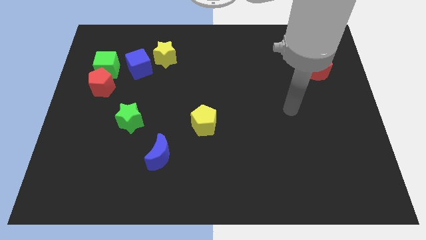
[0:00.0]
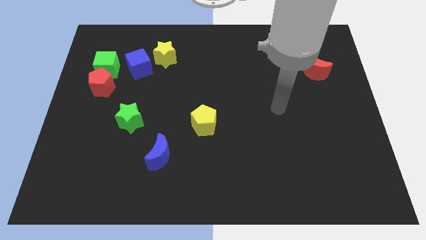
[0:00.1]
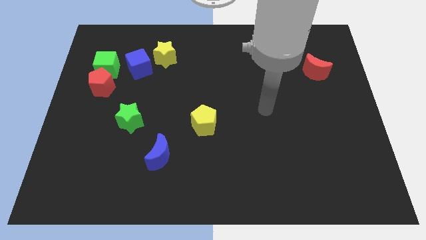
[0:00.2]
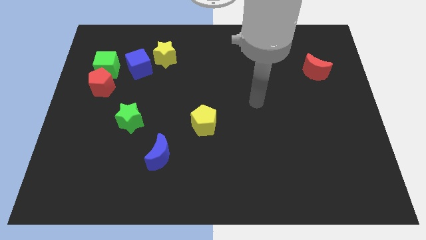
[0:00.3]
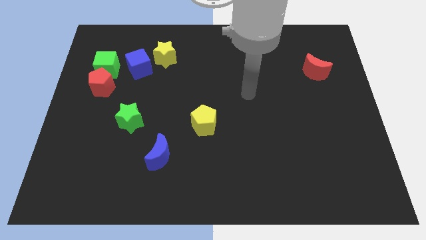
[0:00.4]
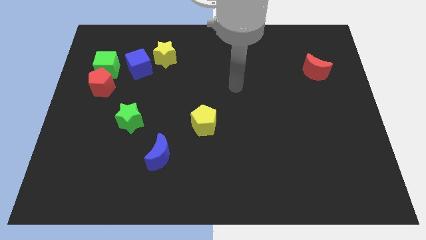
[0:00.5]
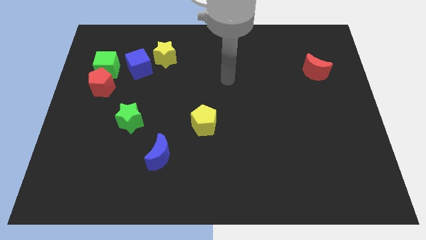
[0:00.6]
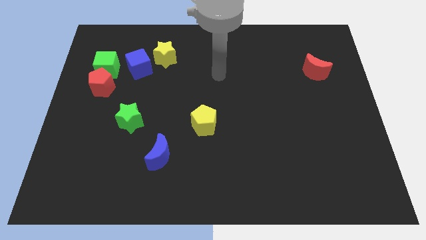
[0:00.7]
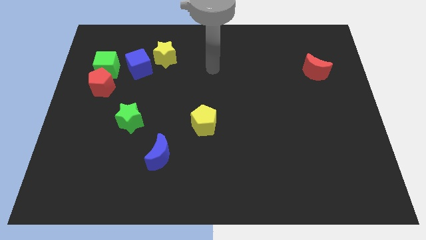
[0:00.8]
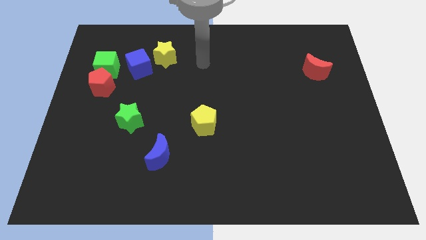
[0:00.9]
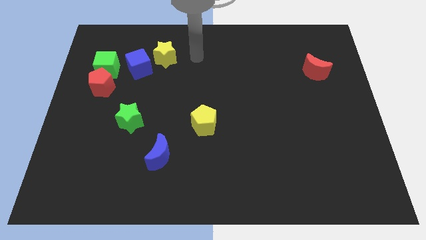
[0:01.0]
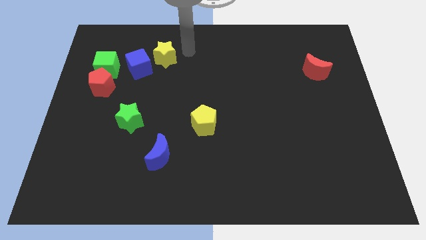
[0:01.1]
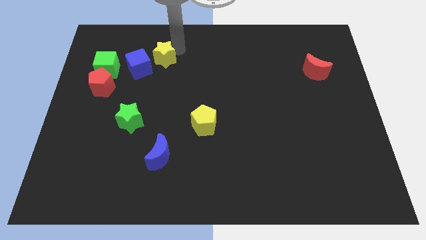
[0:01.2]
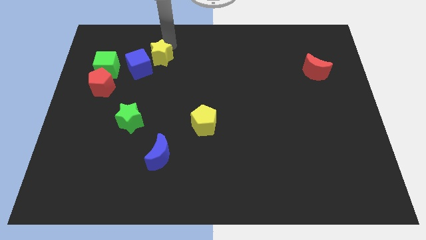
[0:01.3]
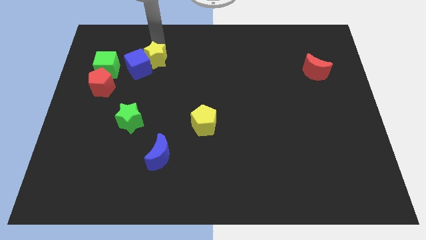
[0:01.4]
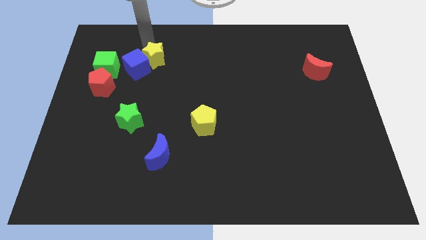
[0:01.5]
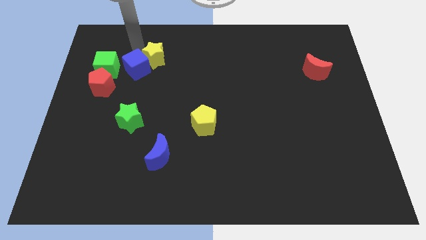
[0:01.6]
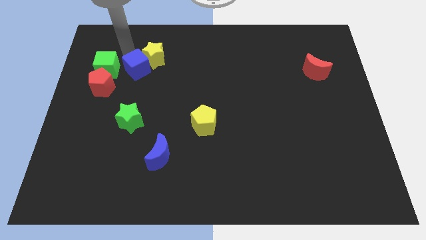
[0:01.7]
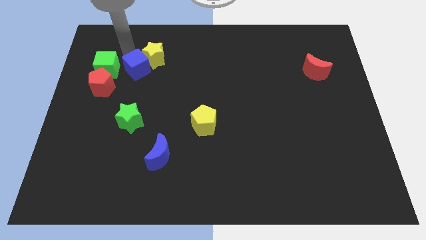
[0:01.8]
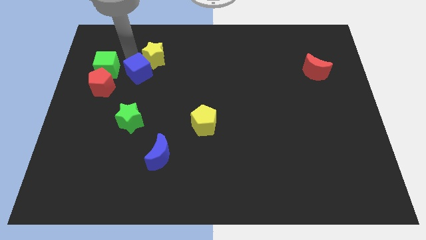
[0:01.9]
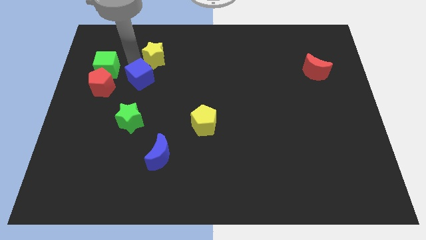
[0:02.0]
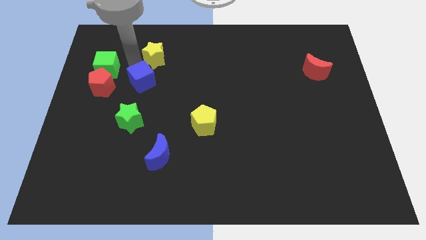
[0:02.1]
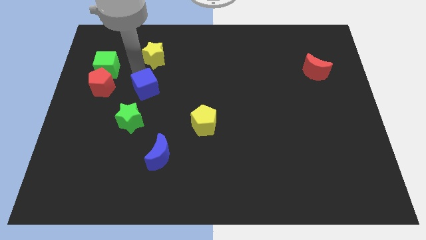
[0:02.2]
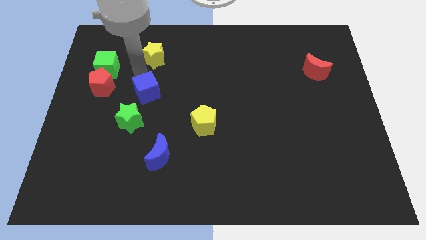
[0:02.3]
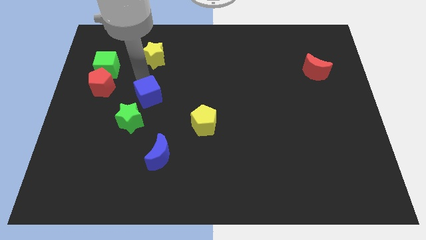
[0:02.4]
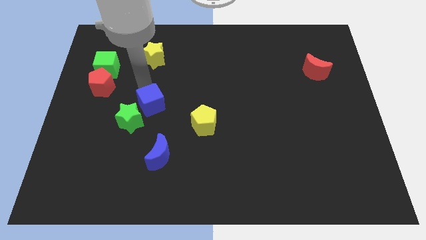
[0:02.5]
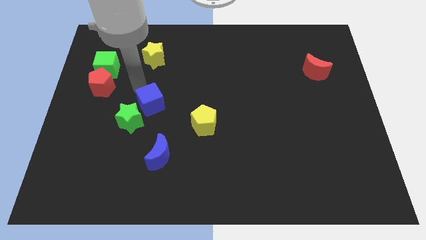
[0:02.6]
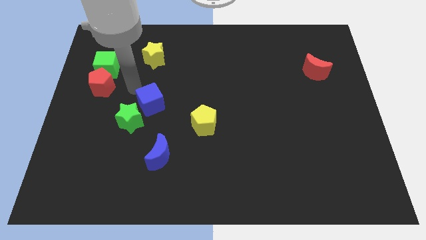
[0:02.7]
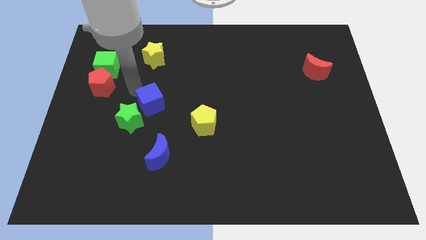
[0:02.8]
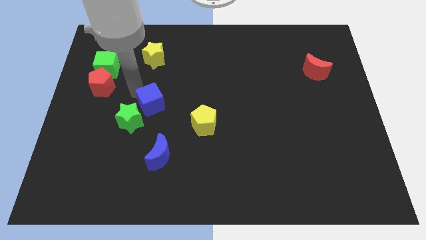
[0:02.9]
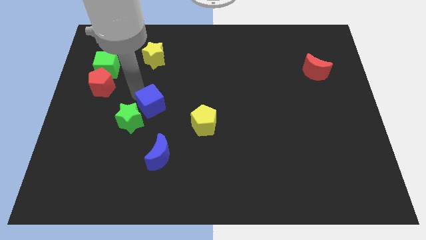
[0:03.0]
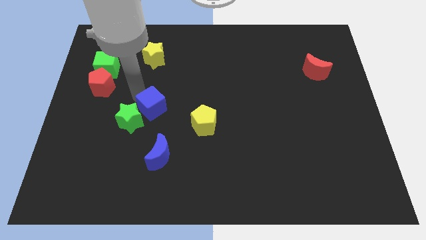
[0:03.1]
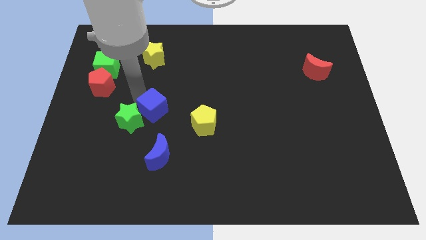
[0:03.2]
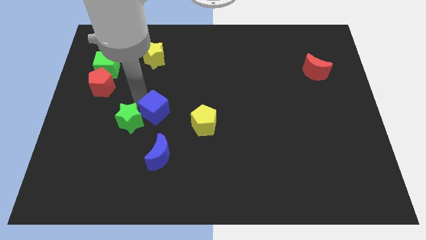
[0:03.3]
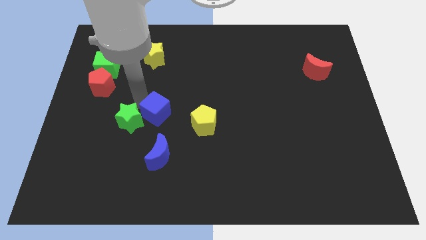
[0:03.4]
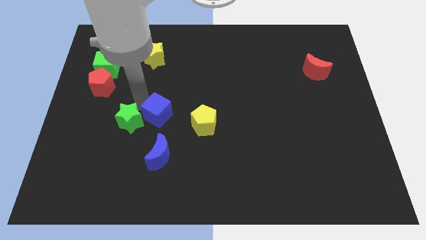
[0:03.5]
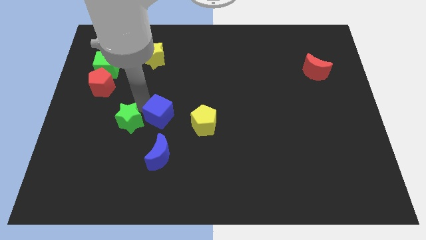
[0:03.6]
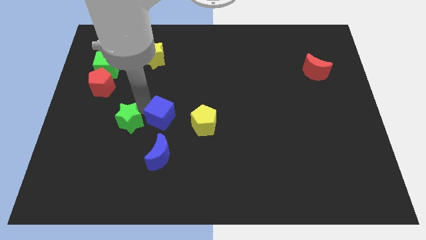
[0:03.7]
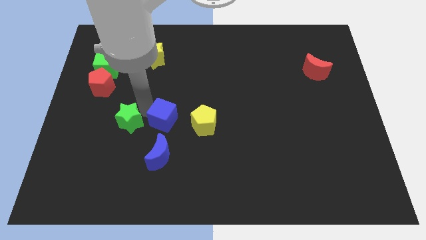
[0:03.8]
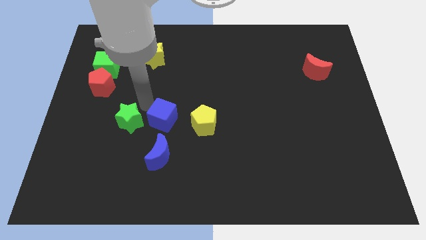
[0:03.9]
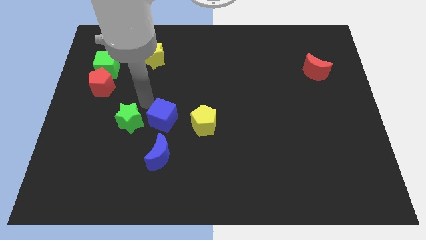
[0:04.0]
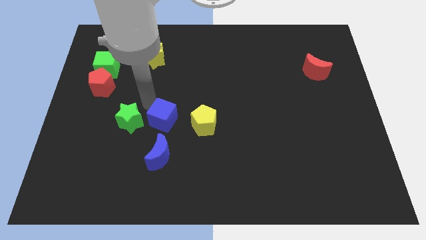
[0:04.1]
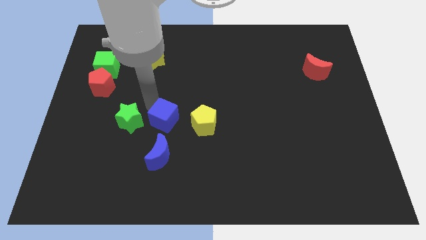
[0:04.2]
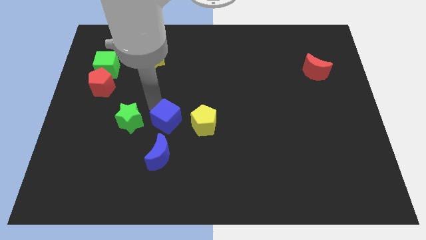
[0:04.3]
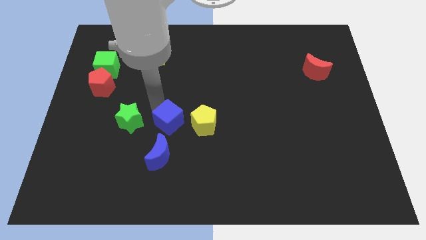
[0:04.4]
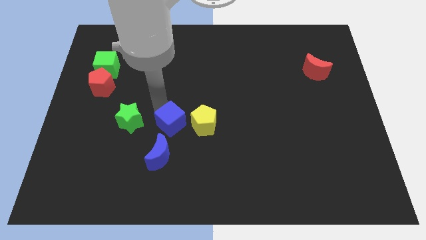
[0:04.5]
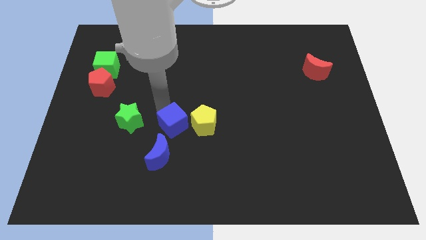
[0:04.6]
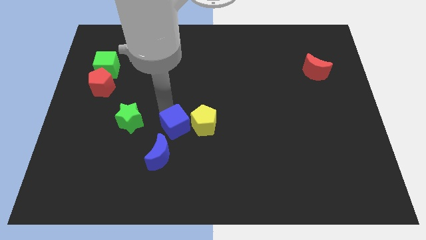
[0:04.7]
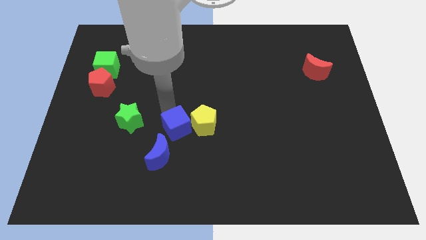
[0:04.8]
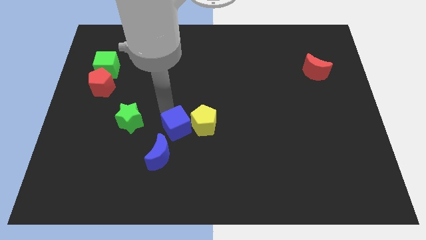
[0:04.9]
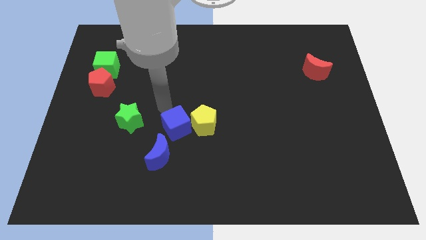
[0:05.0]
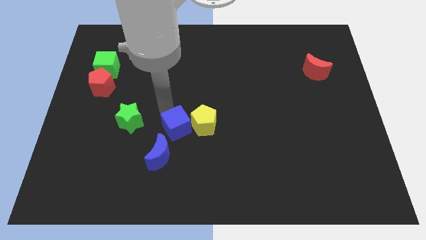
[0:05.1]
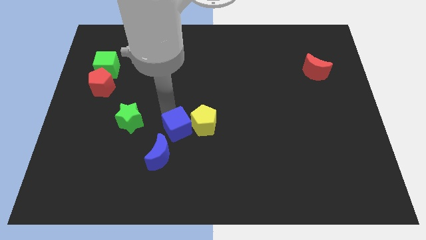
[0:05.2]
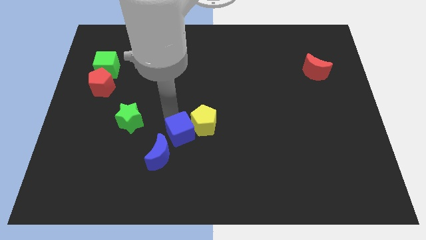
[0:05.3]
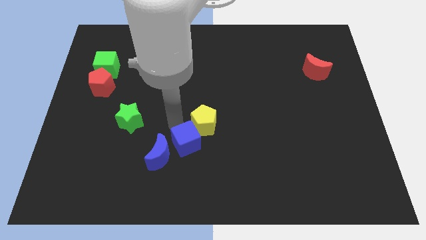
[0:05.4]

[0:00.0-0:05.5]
push the blue cube to the bottom side of the yellow pentagon

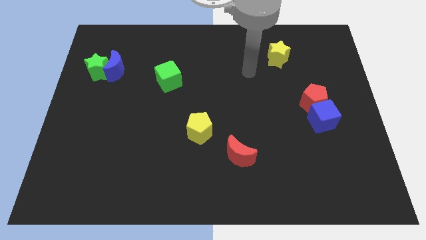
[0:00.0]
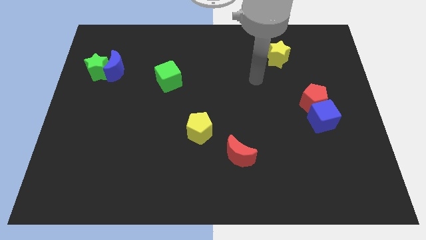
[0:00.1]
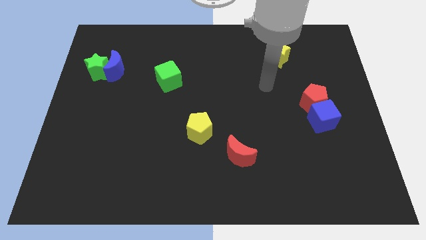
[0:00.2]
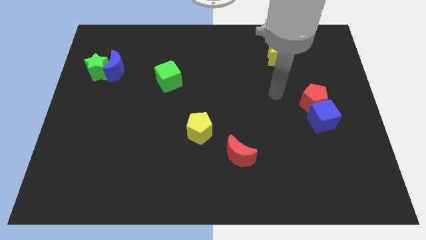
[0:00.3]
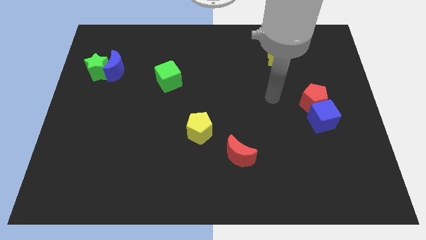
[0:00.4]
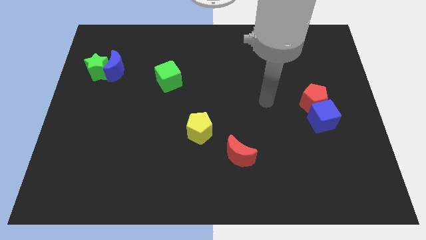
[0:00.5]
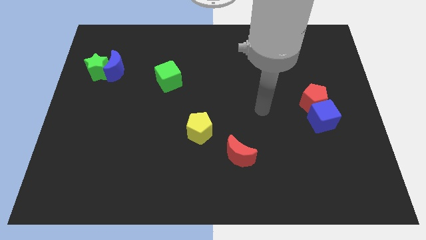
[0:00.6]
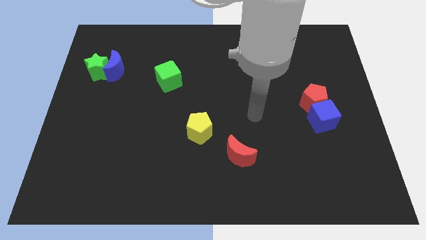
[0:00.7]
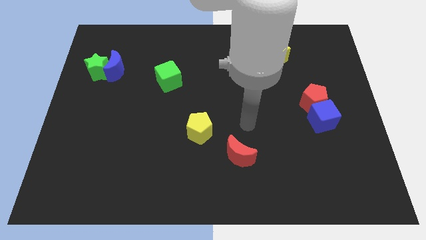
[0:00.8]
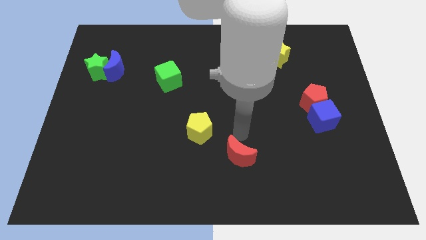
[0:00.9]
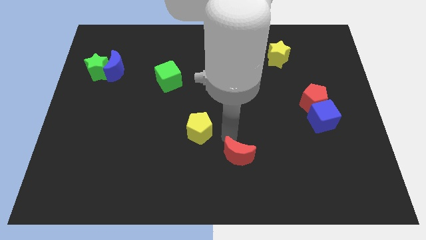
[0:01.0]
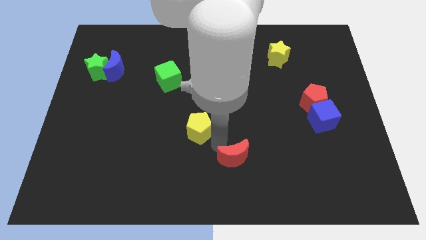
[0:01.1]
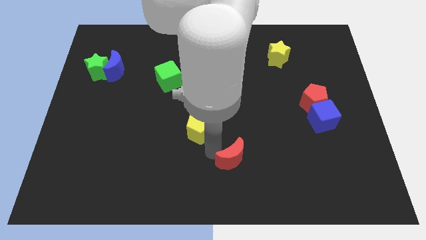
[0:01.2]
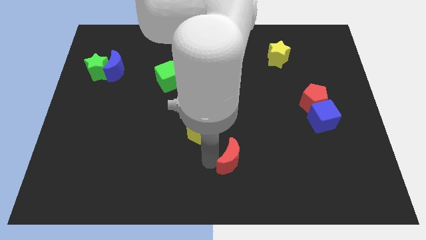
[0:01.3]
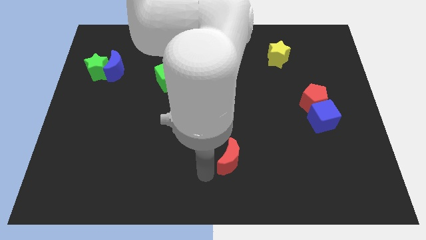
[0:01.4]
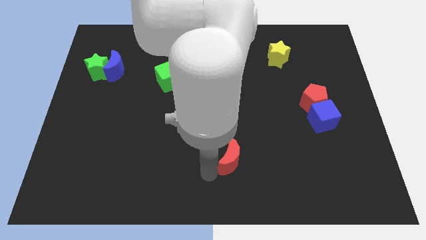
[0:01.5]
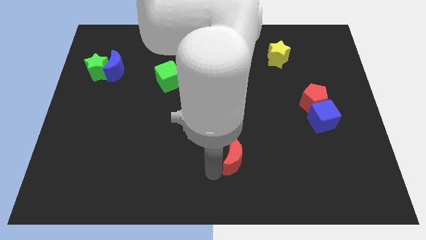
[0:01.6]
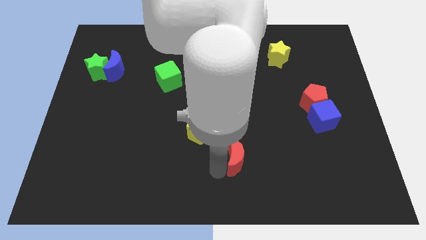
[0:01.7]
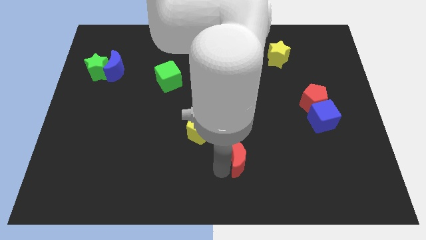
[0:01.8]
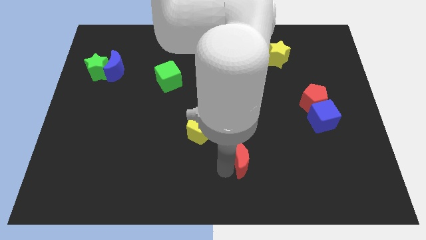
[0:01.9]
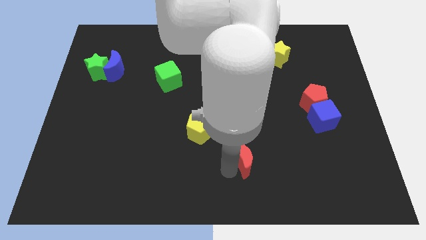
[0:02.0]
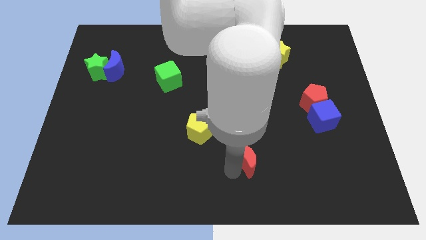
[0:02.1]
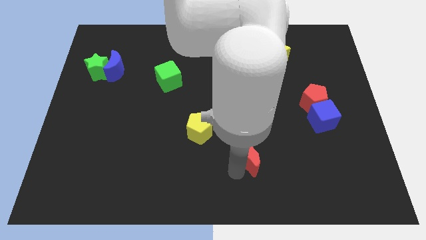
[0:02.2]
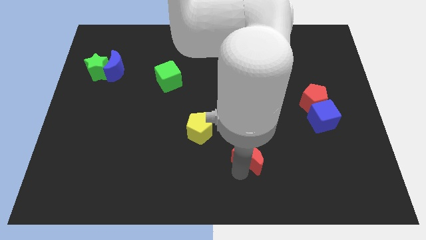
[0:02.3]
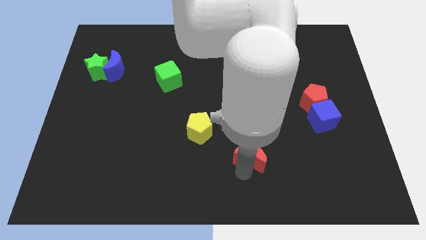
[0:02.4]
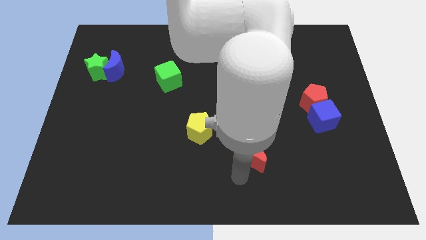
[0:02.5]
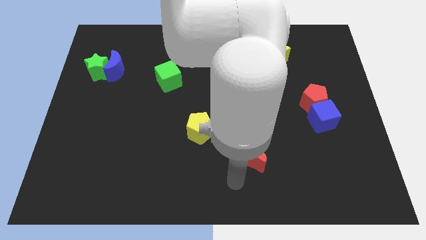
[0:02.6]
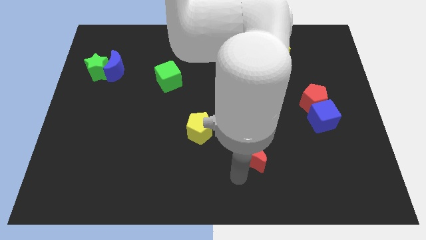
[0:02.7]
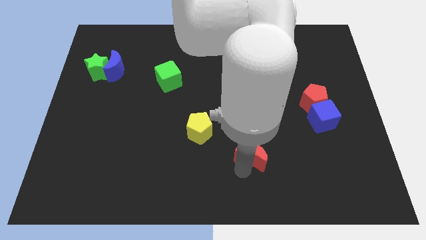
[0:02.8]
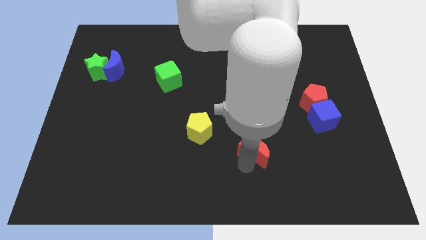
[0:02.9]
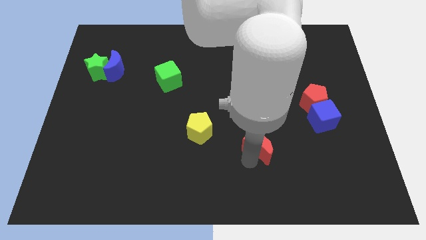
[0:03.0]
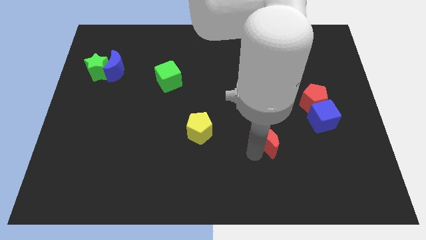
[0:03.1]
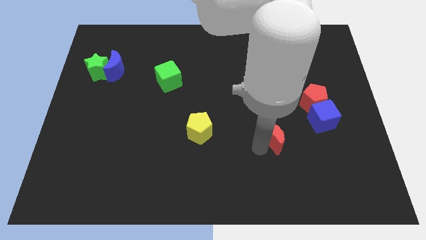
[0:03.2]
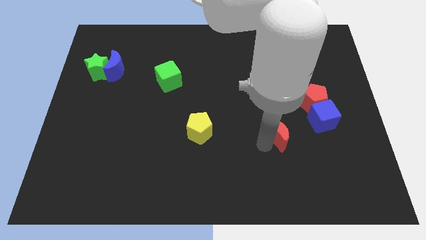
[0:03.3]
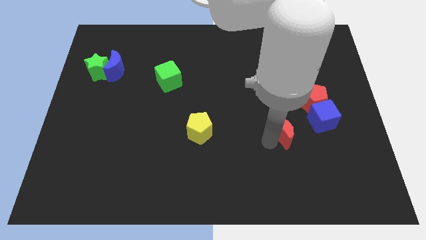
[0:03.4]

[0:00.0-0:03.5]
push the red moon diagonally down and to the left of the red pentagon
